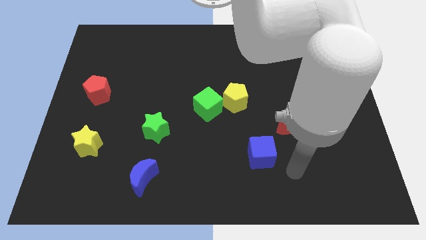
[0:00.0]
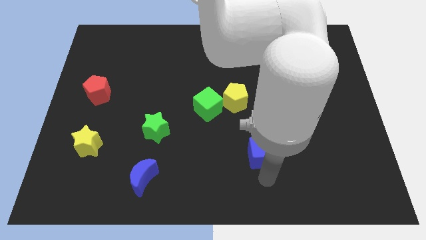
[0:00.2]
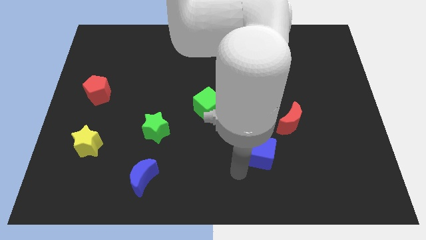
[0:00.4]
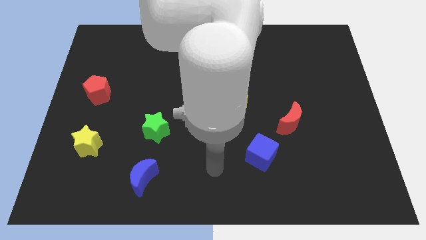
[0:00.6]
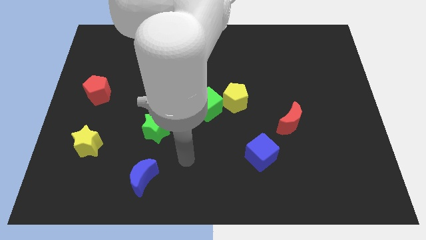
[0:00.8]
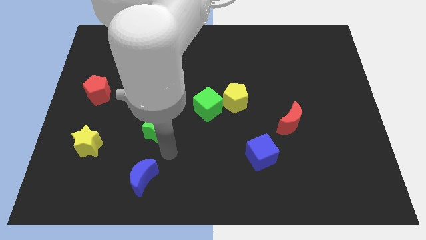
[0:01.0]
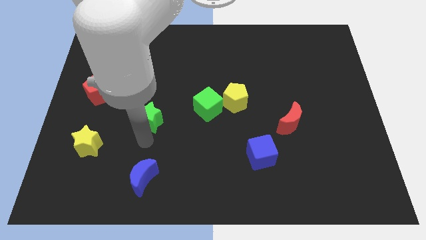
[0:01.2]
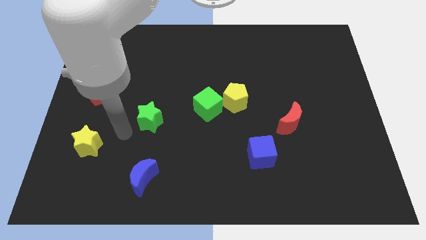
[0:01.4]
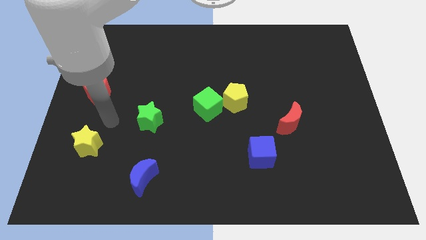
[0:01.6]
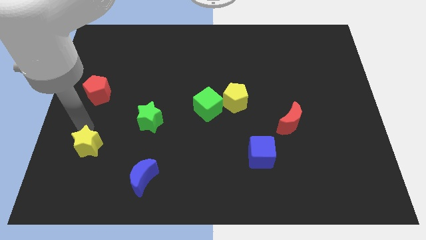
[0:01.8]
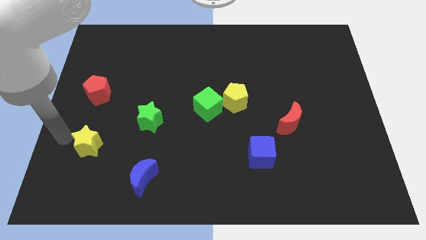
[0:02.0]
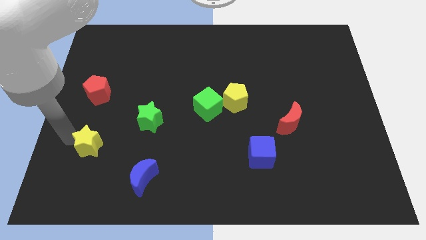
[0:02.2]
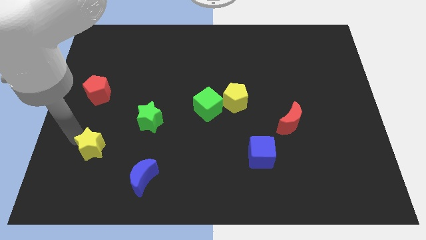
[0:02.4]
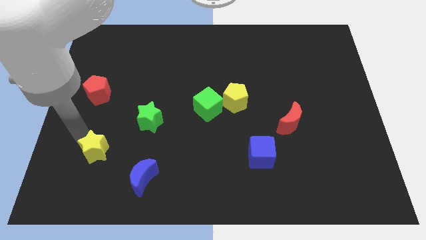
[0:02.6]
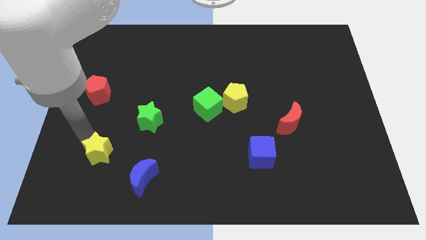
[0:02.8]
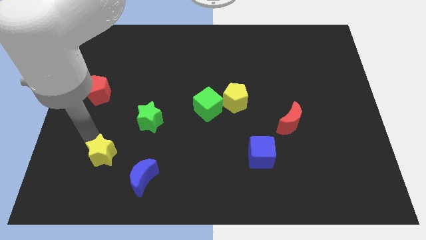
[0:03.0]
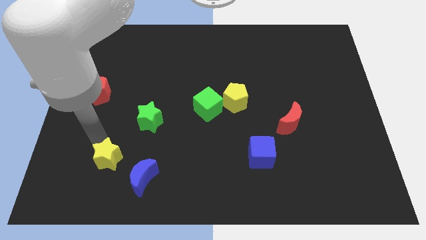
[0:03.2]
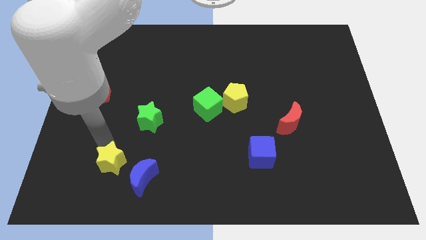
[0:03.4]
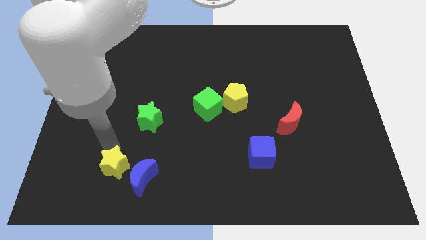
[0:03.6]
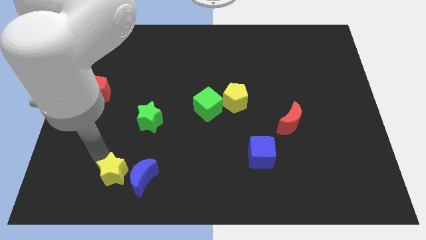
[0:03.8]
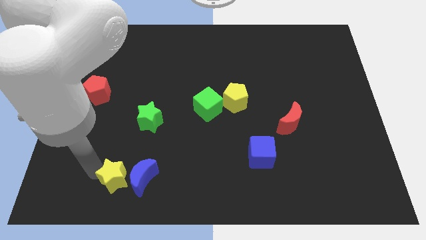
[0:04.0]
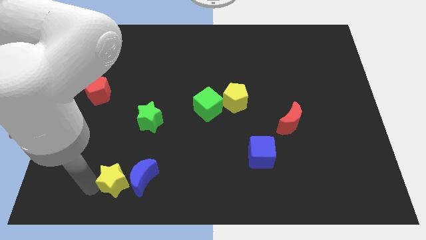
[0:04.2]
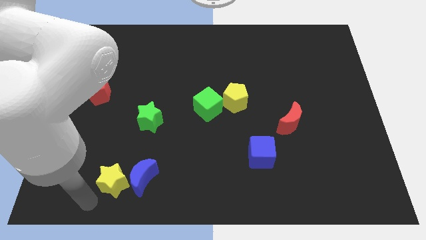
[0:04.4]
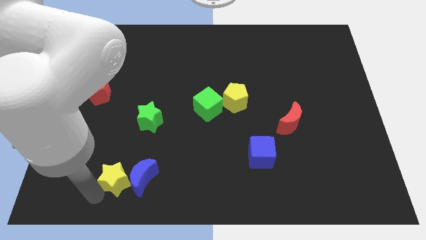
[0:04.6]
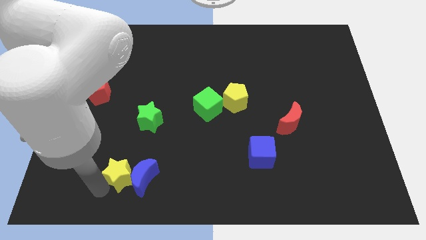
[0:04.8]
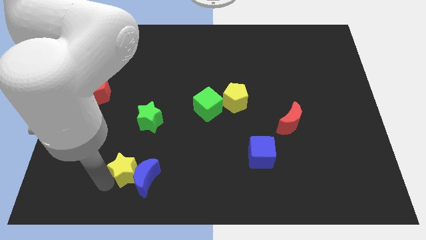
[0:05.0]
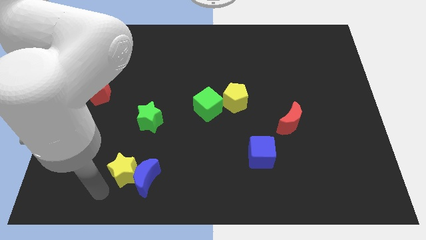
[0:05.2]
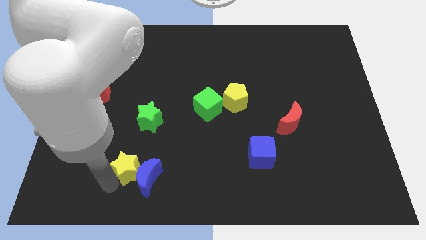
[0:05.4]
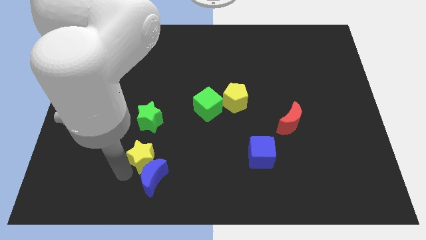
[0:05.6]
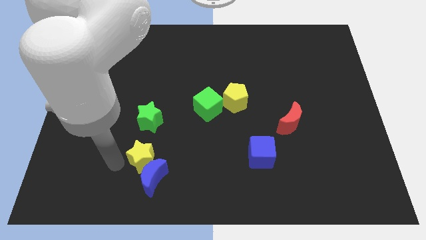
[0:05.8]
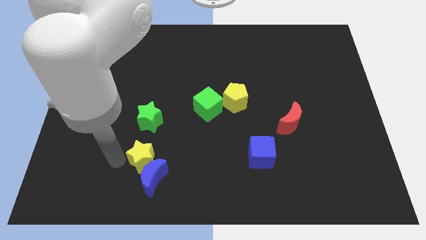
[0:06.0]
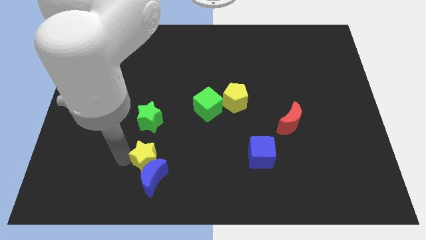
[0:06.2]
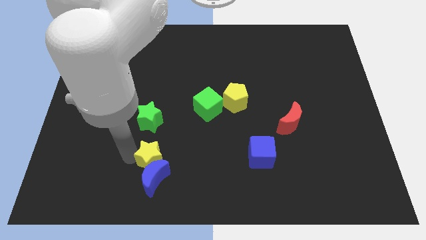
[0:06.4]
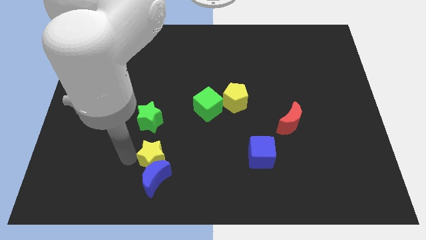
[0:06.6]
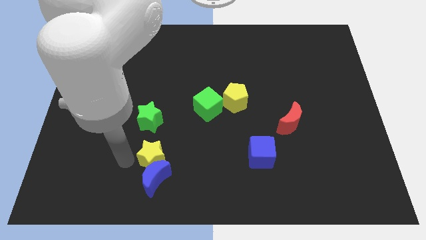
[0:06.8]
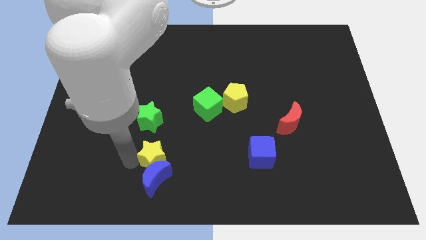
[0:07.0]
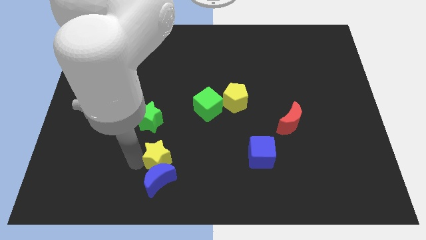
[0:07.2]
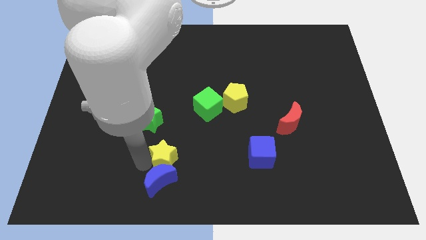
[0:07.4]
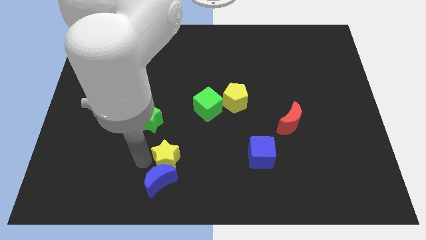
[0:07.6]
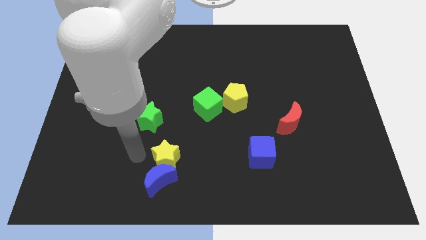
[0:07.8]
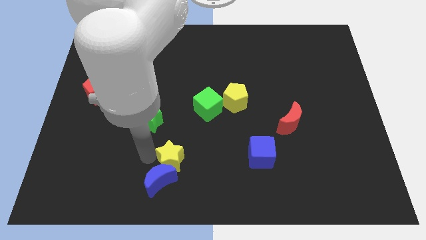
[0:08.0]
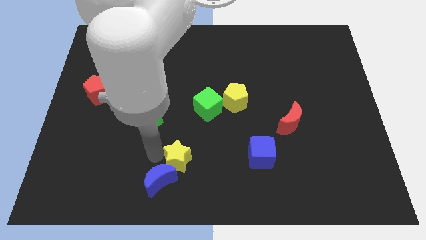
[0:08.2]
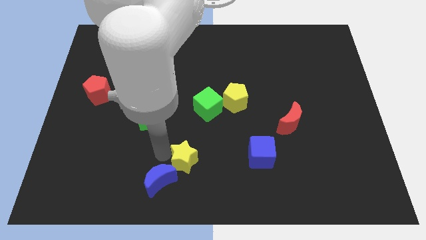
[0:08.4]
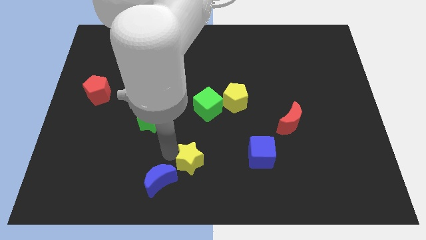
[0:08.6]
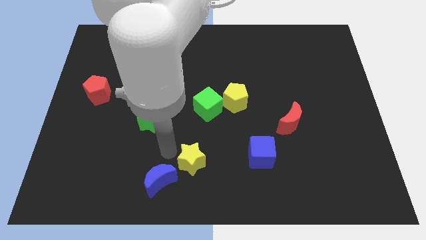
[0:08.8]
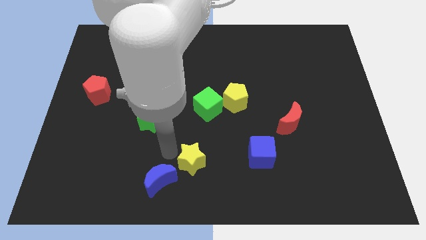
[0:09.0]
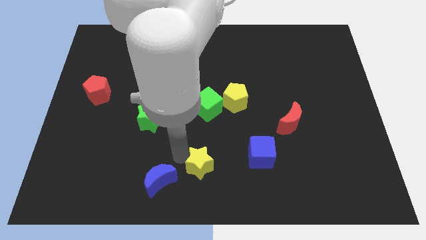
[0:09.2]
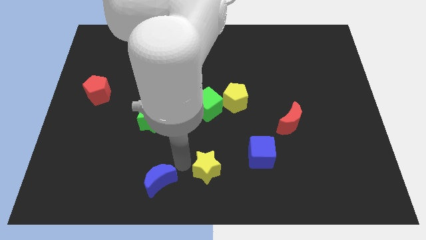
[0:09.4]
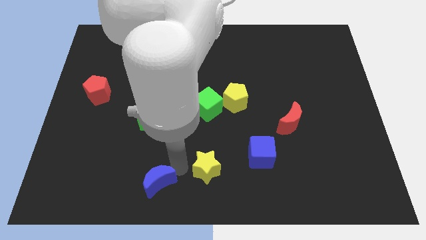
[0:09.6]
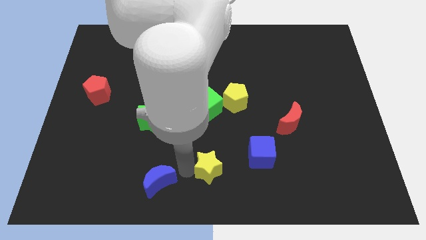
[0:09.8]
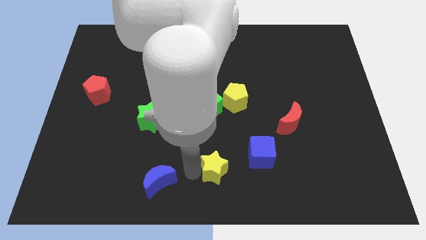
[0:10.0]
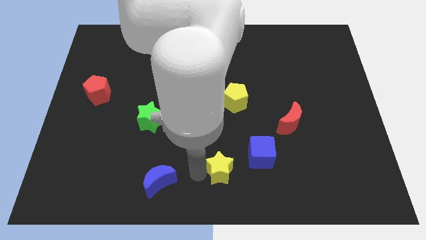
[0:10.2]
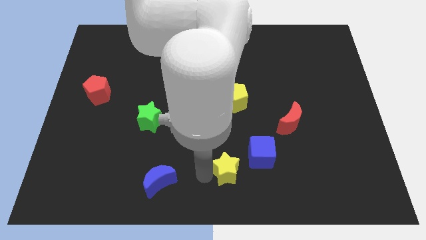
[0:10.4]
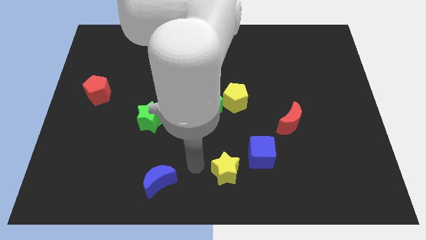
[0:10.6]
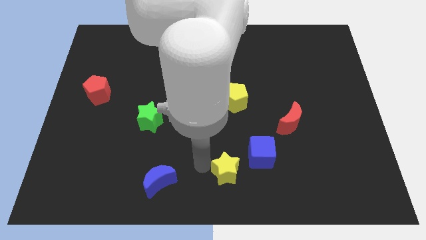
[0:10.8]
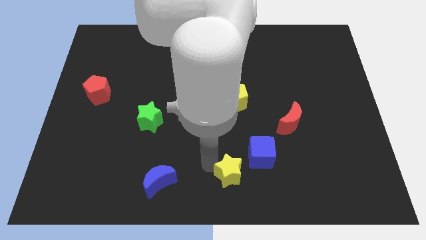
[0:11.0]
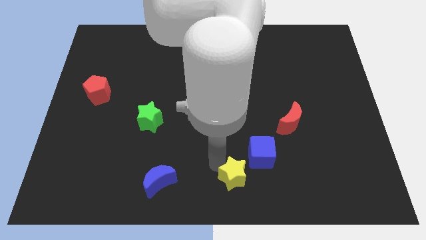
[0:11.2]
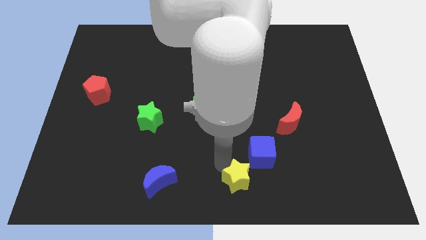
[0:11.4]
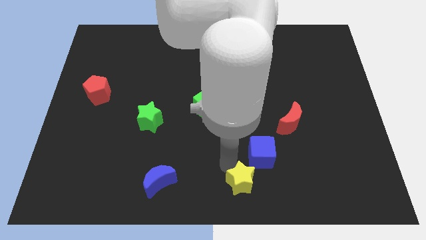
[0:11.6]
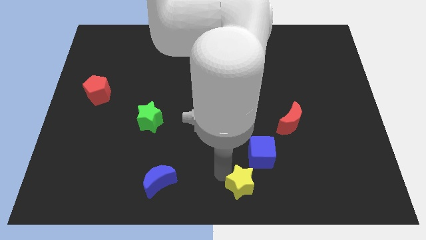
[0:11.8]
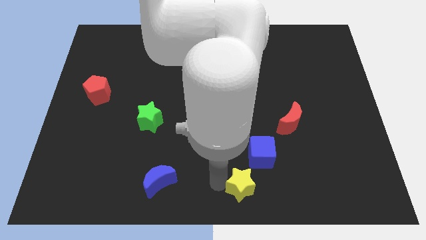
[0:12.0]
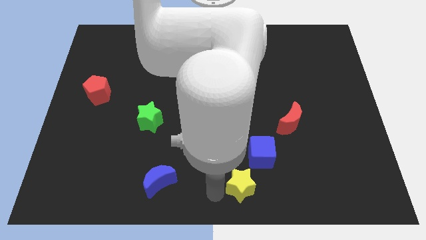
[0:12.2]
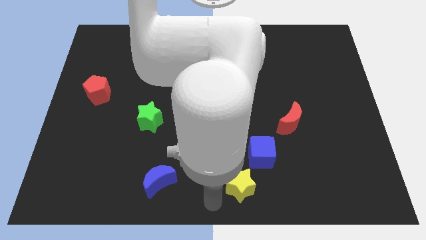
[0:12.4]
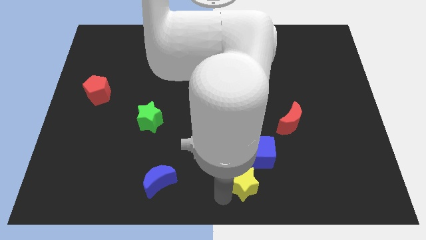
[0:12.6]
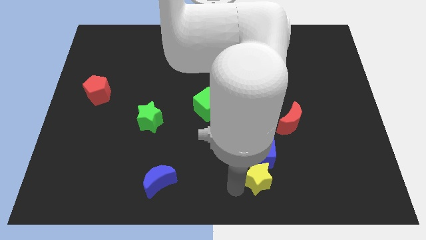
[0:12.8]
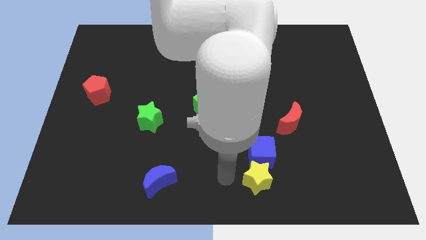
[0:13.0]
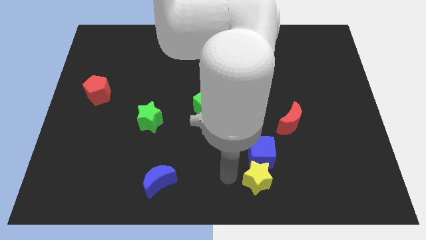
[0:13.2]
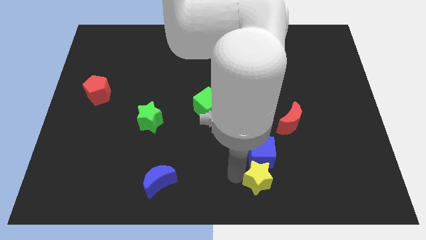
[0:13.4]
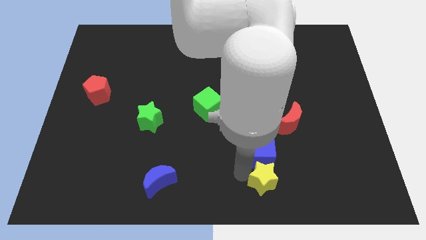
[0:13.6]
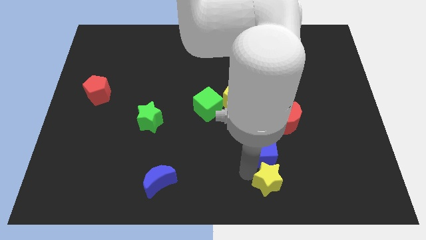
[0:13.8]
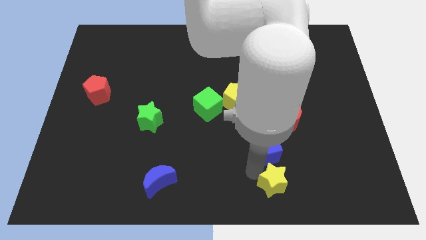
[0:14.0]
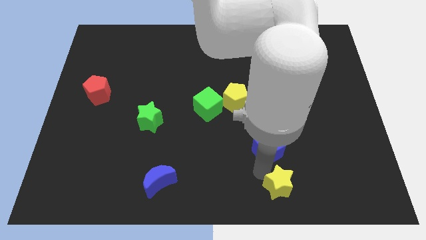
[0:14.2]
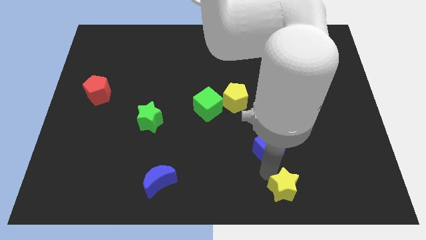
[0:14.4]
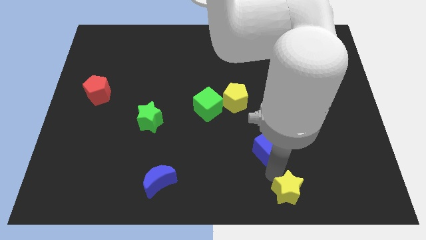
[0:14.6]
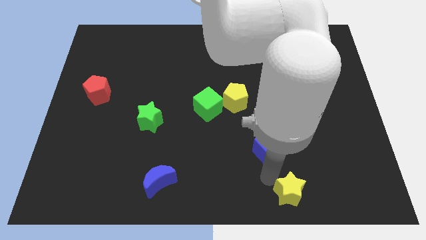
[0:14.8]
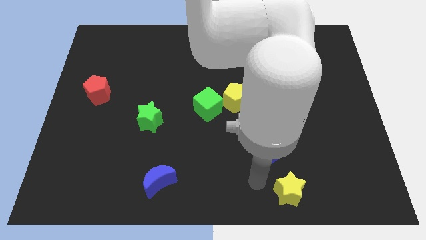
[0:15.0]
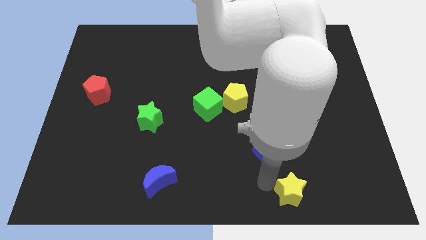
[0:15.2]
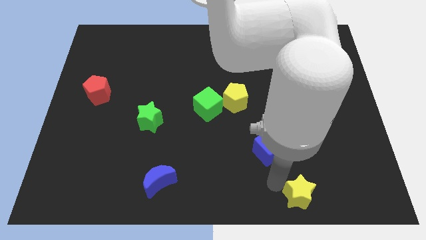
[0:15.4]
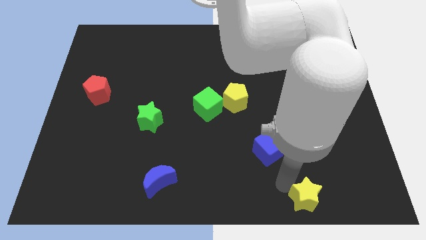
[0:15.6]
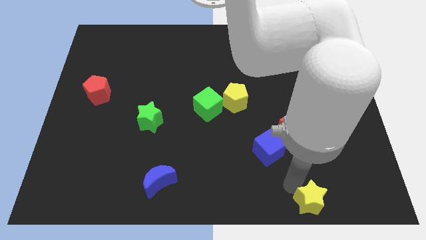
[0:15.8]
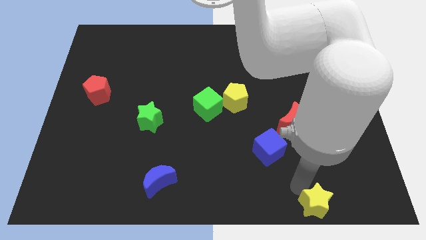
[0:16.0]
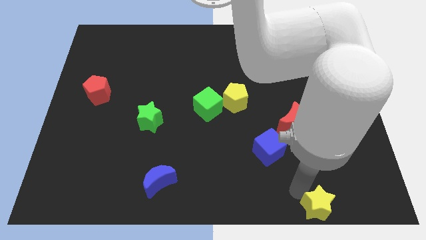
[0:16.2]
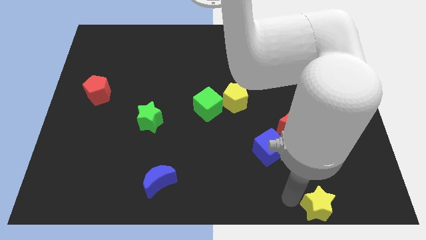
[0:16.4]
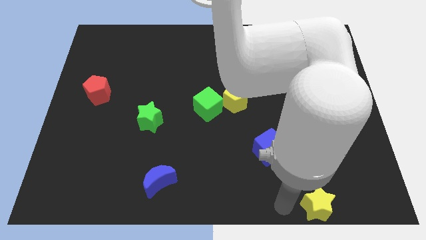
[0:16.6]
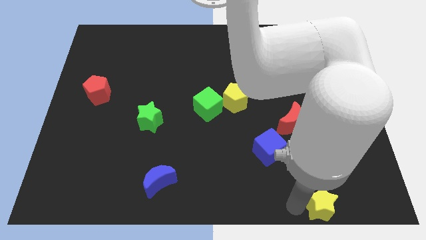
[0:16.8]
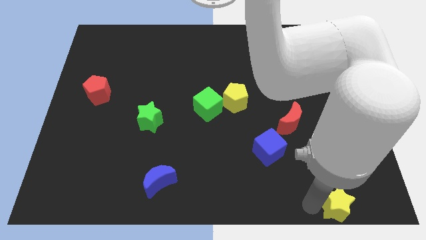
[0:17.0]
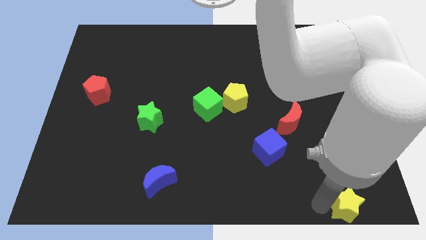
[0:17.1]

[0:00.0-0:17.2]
push the yellow star to the bottom right corner
